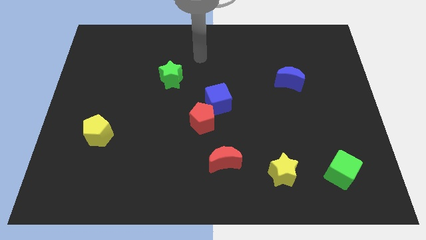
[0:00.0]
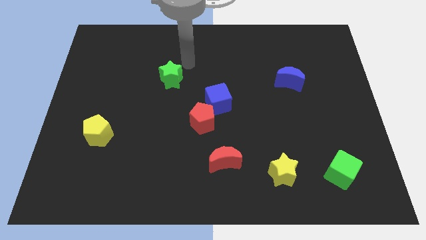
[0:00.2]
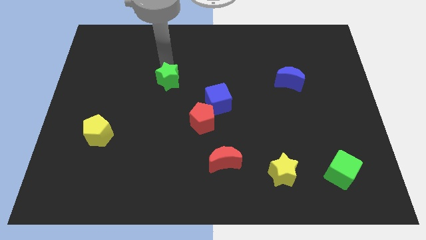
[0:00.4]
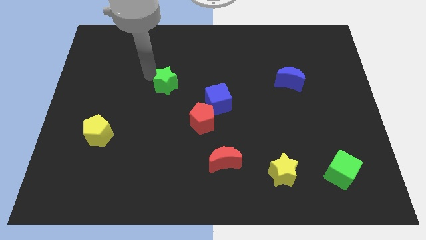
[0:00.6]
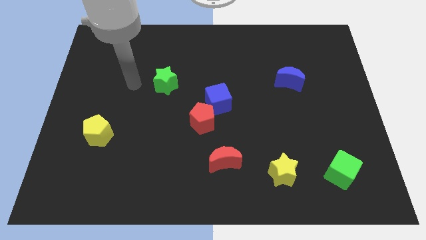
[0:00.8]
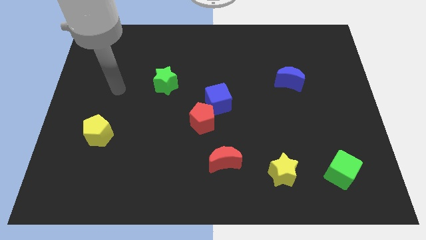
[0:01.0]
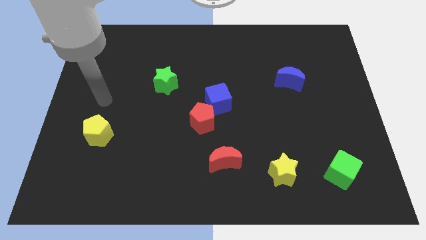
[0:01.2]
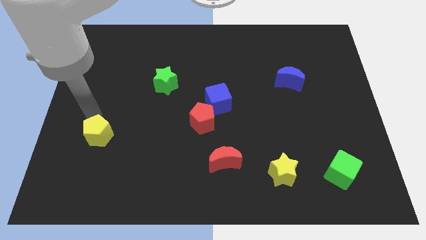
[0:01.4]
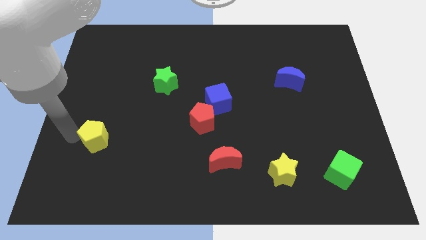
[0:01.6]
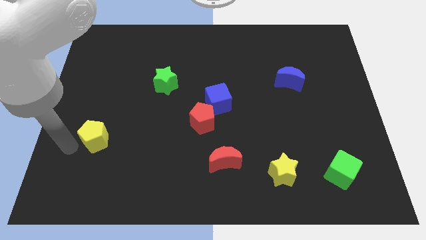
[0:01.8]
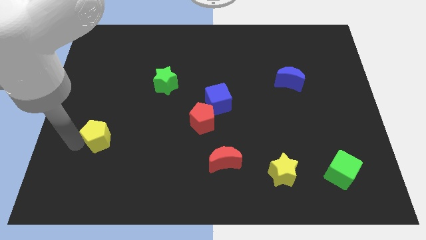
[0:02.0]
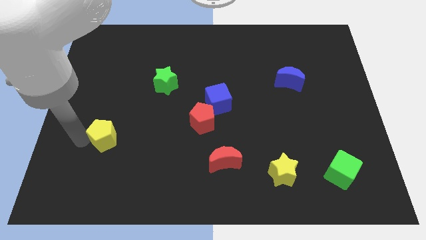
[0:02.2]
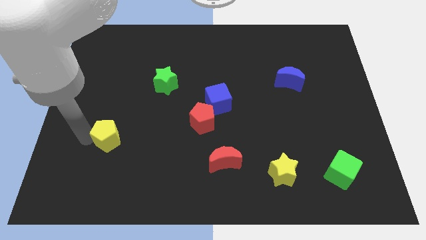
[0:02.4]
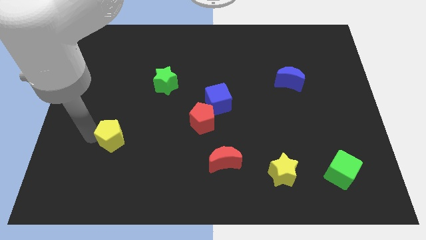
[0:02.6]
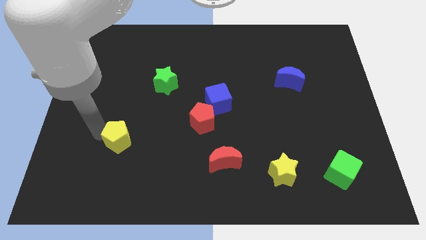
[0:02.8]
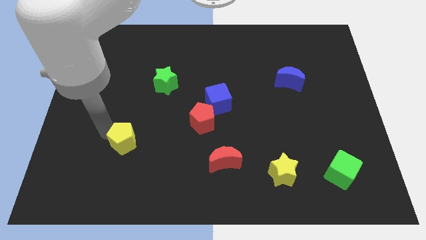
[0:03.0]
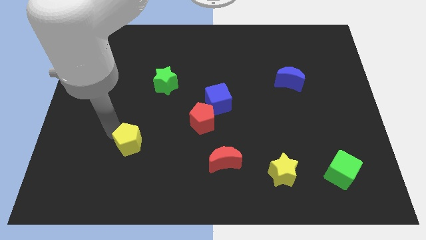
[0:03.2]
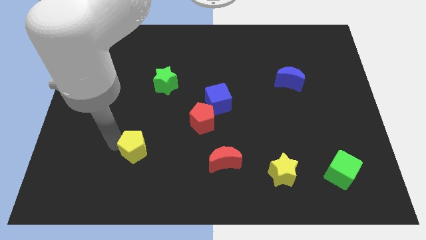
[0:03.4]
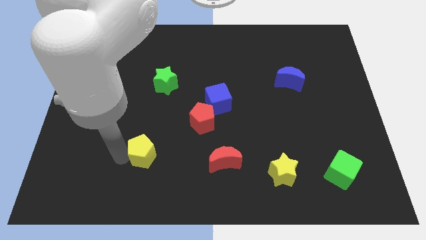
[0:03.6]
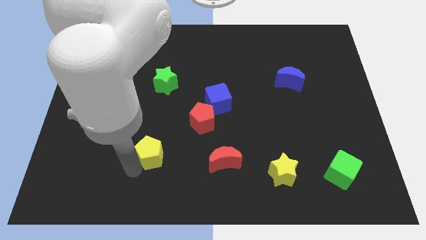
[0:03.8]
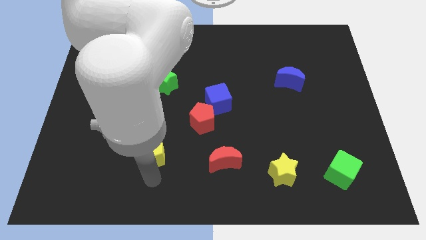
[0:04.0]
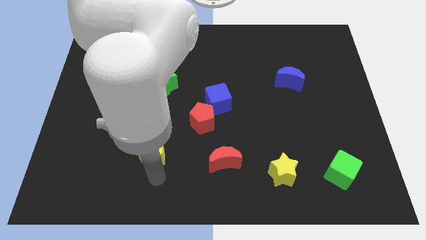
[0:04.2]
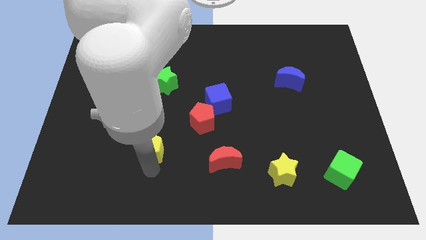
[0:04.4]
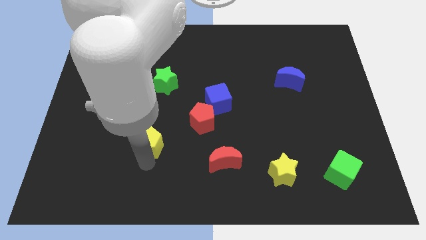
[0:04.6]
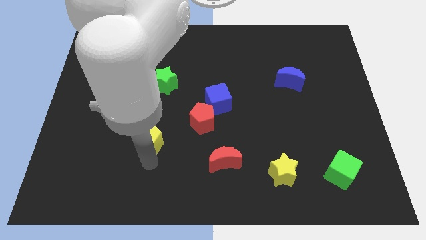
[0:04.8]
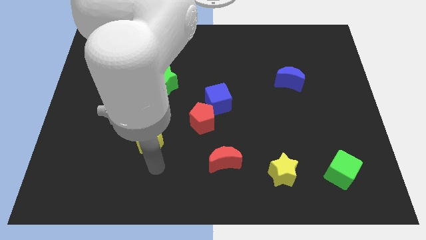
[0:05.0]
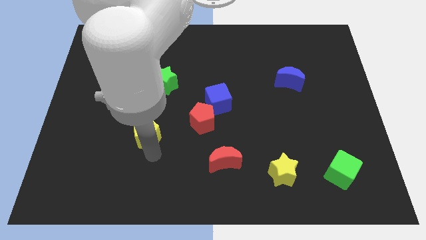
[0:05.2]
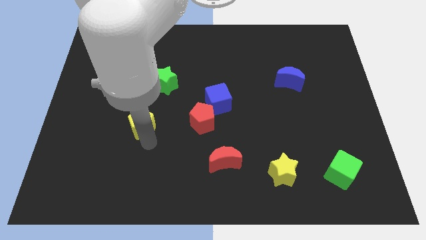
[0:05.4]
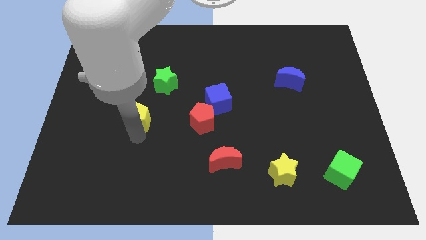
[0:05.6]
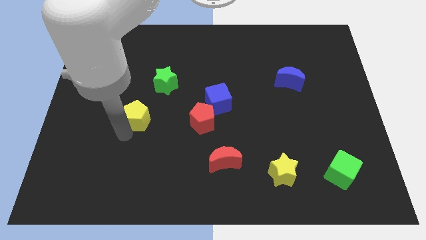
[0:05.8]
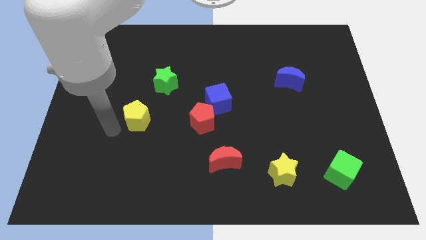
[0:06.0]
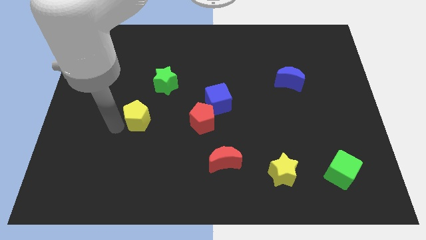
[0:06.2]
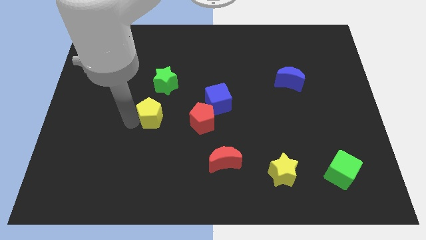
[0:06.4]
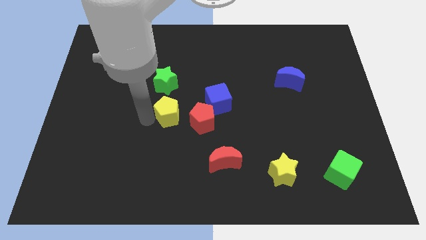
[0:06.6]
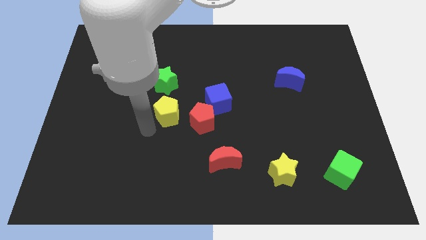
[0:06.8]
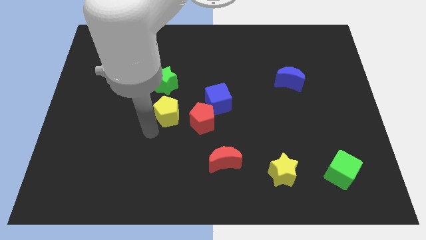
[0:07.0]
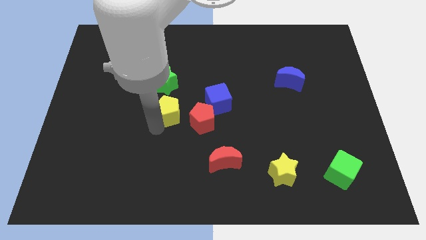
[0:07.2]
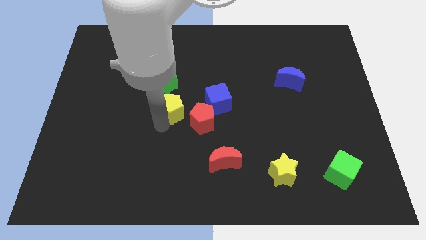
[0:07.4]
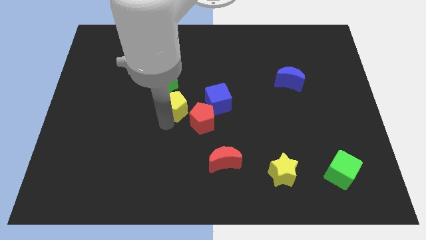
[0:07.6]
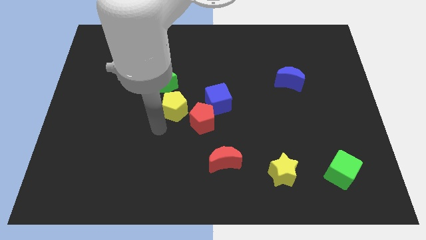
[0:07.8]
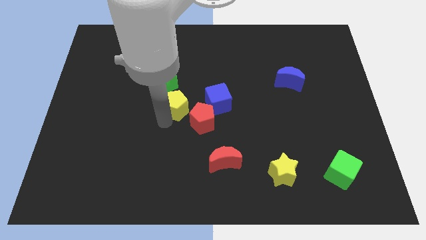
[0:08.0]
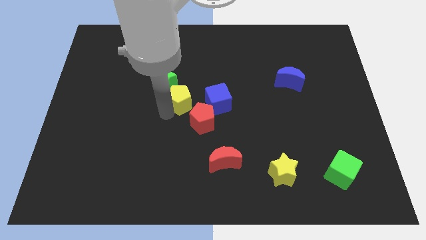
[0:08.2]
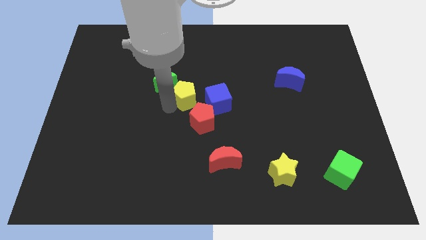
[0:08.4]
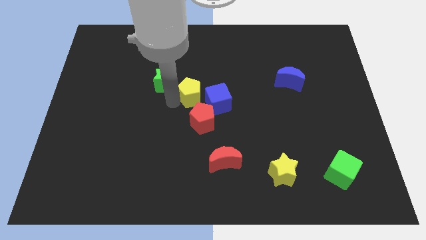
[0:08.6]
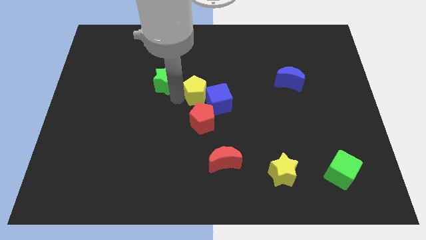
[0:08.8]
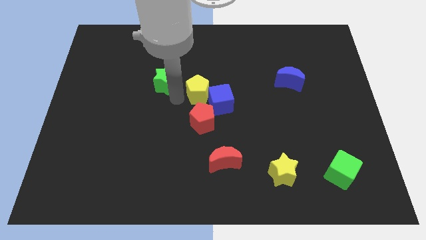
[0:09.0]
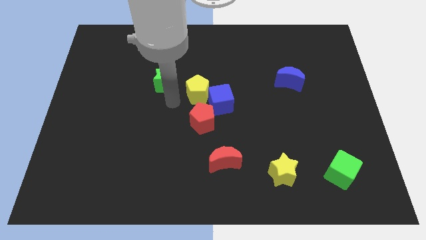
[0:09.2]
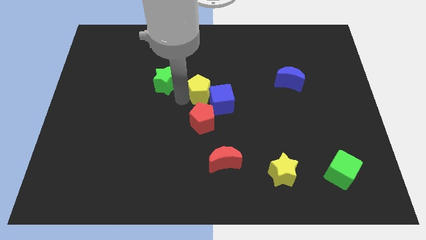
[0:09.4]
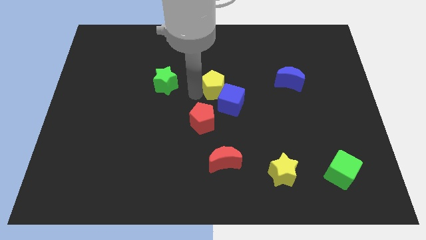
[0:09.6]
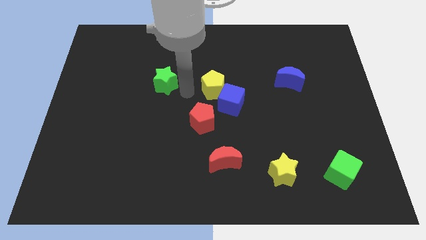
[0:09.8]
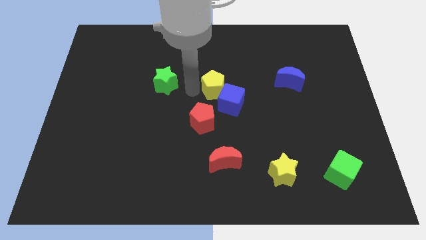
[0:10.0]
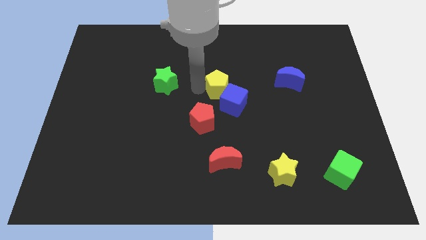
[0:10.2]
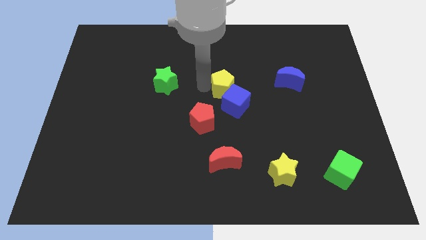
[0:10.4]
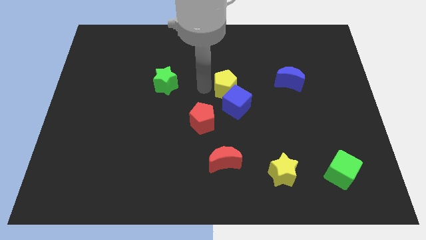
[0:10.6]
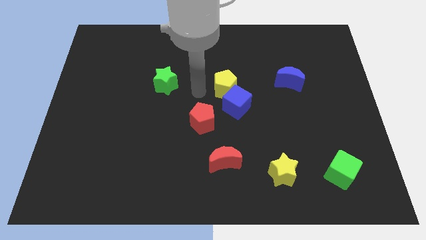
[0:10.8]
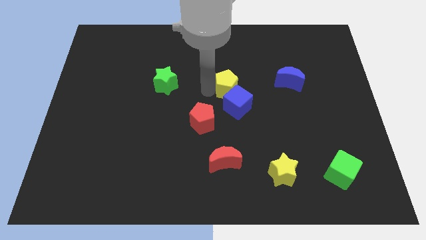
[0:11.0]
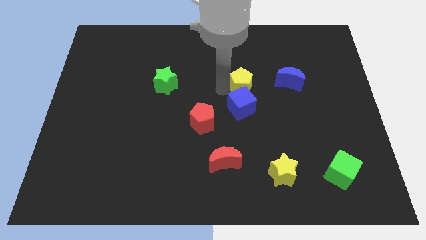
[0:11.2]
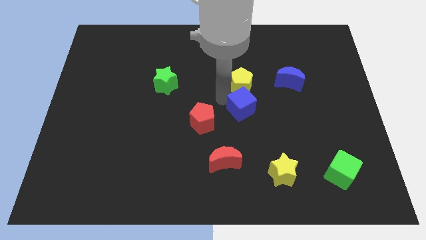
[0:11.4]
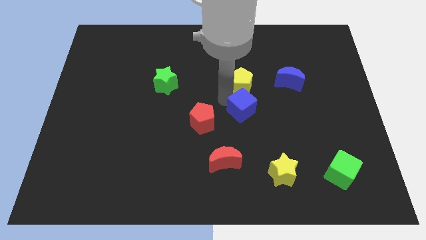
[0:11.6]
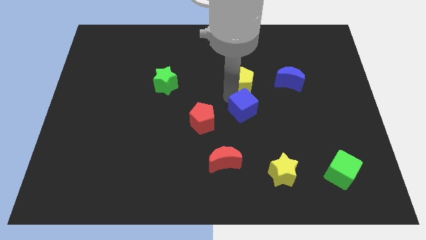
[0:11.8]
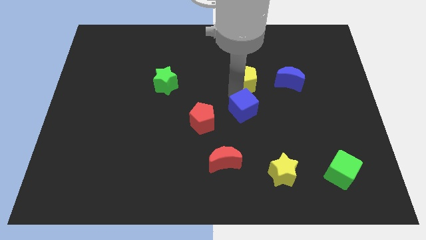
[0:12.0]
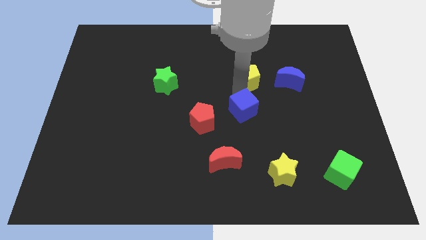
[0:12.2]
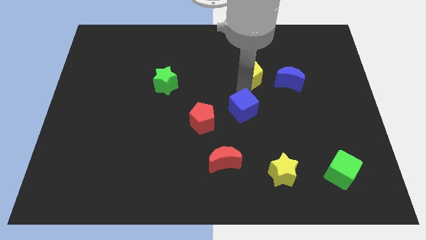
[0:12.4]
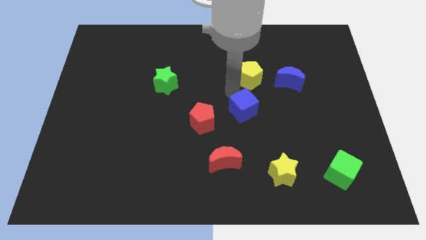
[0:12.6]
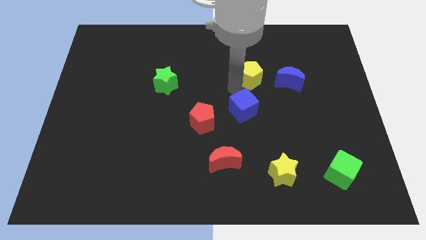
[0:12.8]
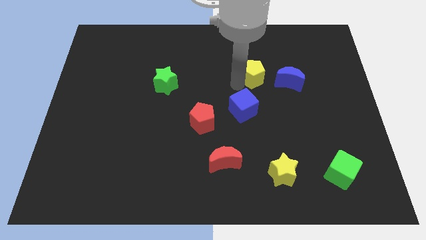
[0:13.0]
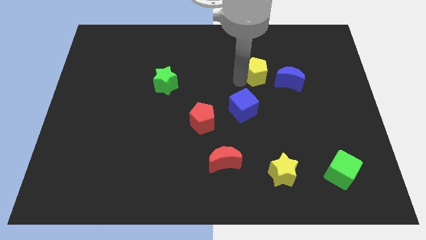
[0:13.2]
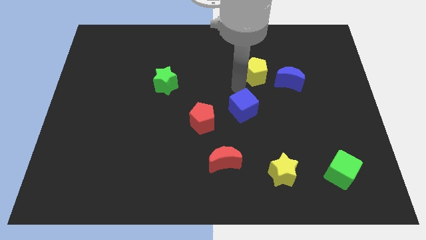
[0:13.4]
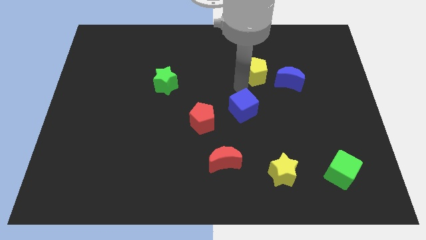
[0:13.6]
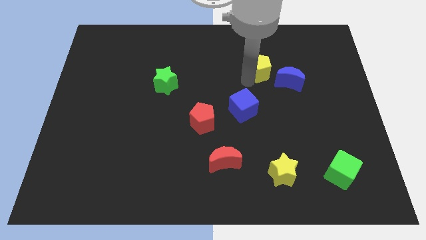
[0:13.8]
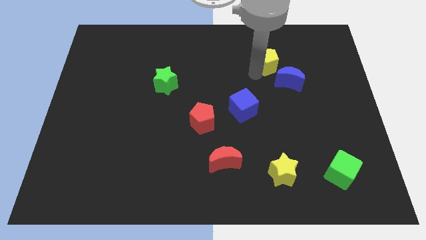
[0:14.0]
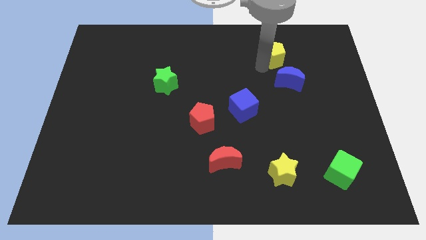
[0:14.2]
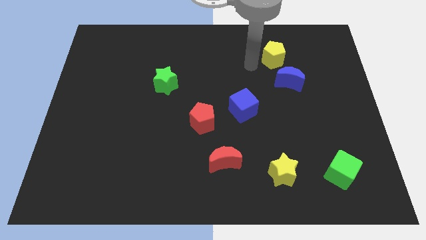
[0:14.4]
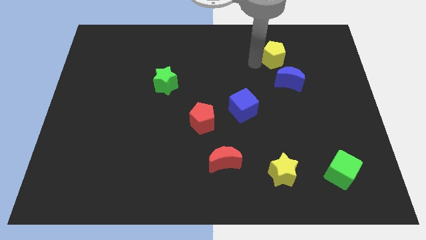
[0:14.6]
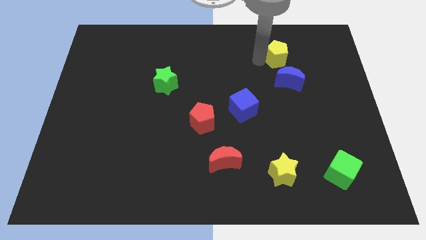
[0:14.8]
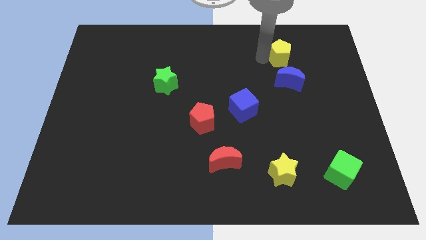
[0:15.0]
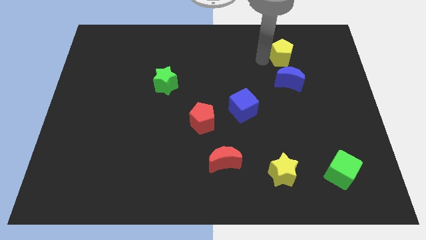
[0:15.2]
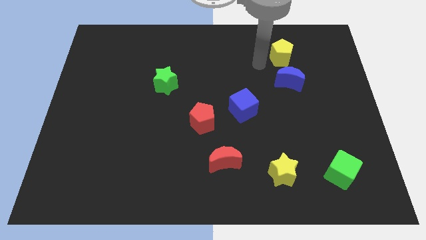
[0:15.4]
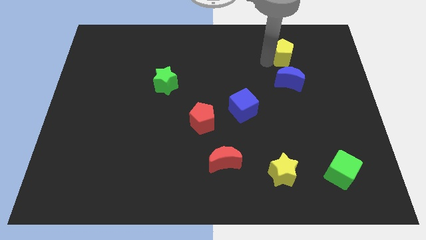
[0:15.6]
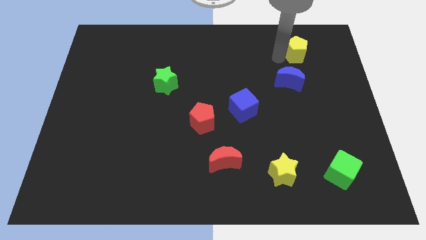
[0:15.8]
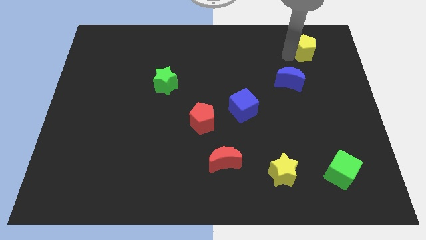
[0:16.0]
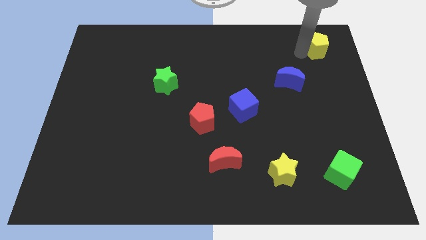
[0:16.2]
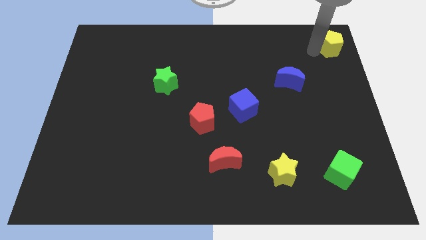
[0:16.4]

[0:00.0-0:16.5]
put the yellow pentagon to the top right
